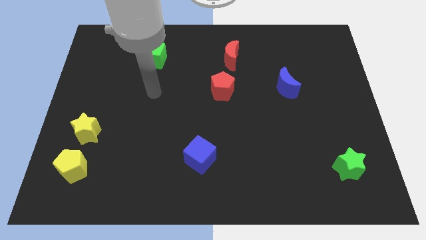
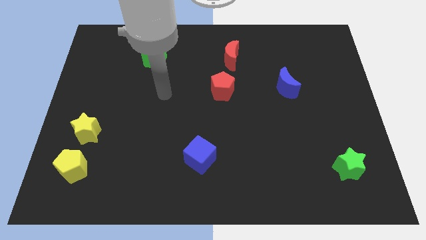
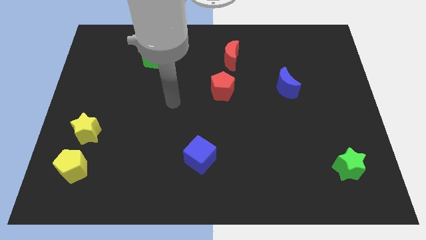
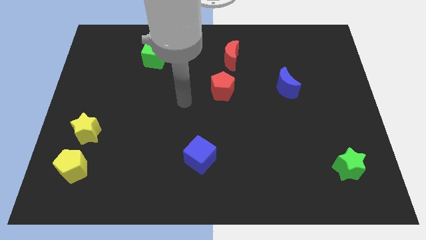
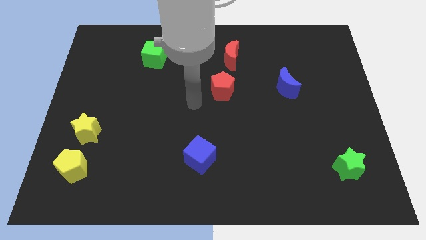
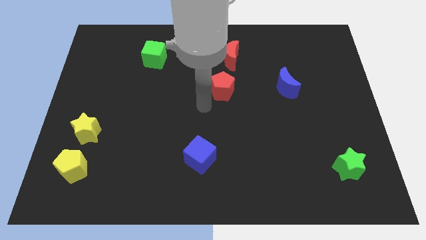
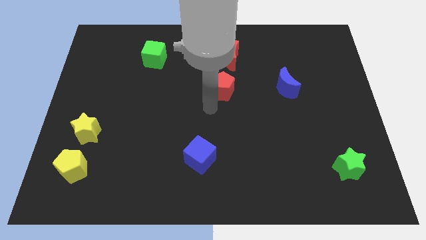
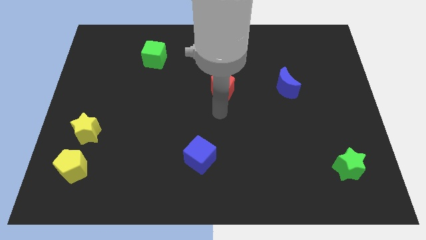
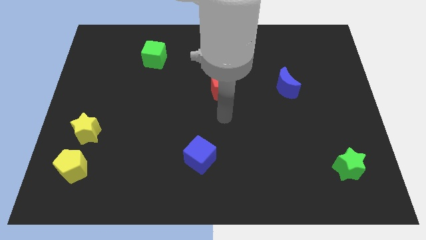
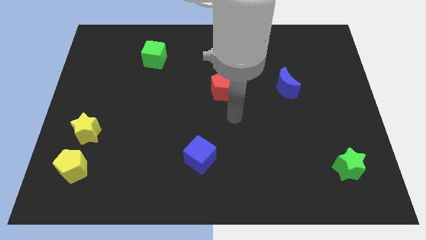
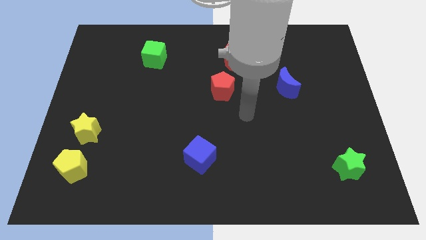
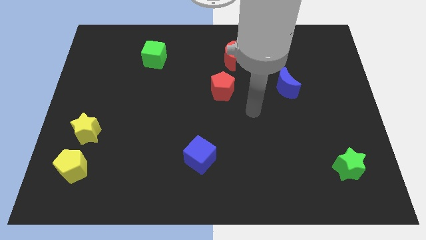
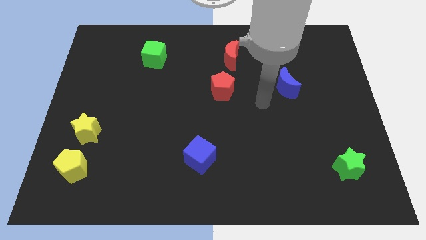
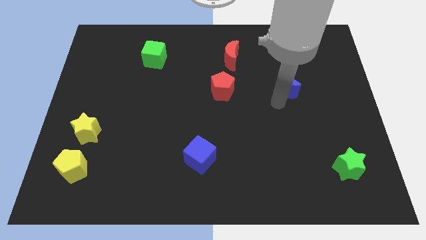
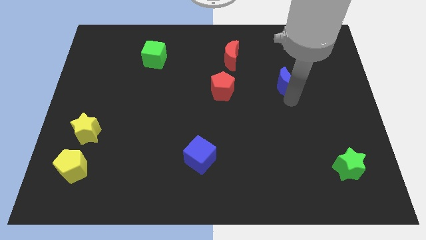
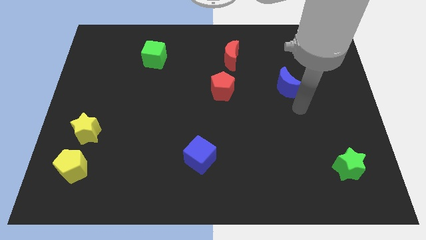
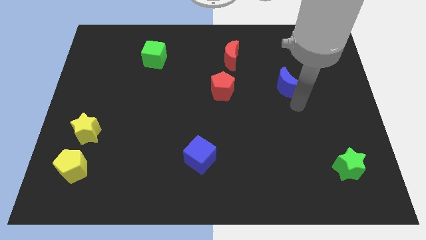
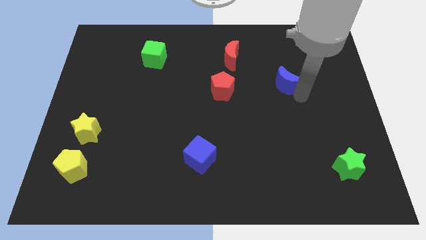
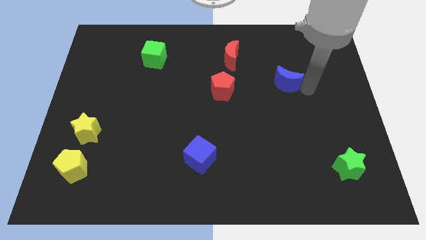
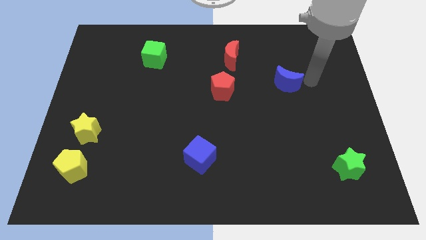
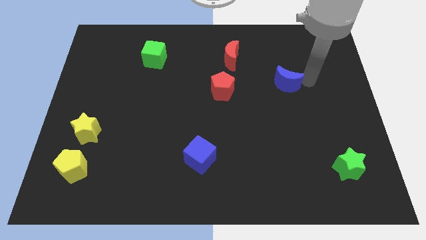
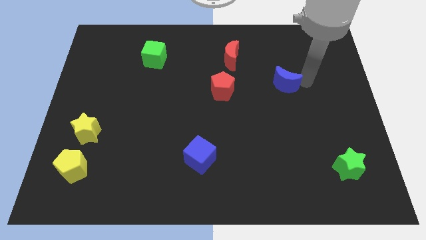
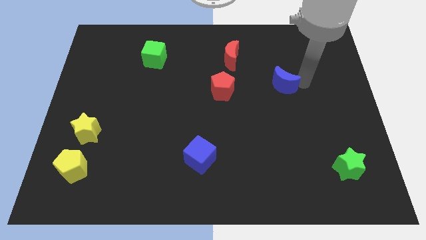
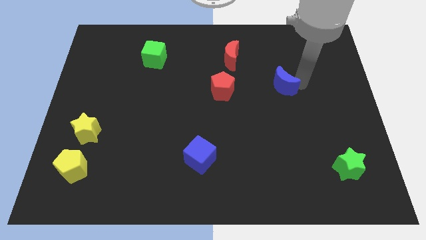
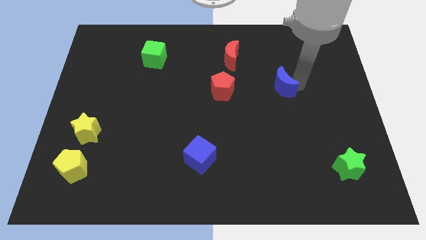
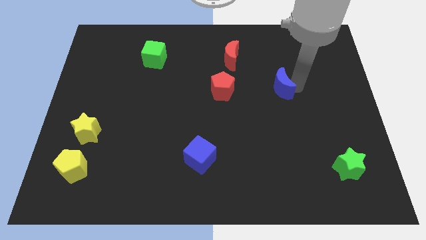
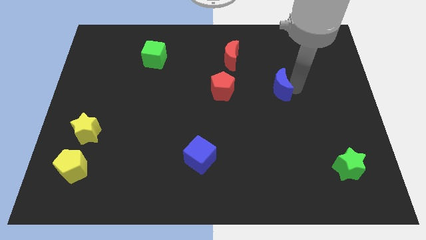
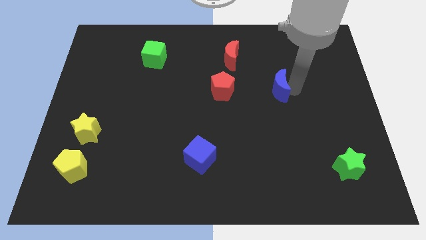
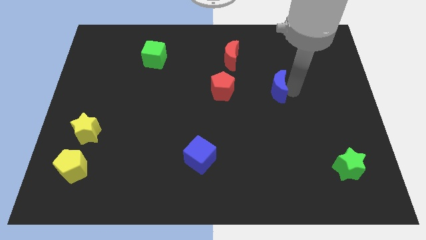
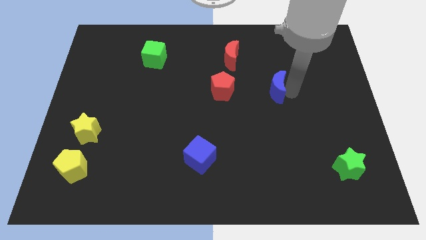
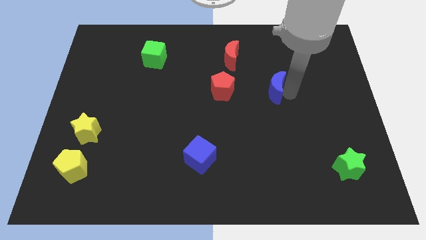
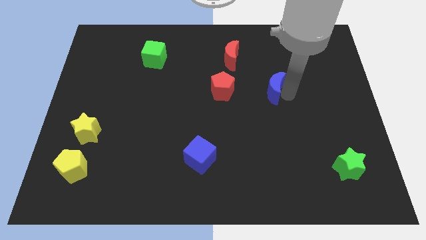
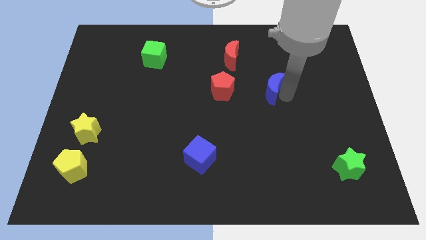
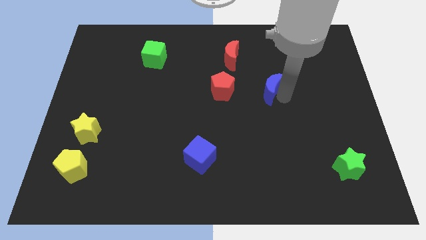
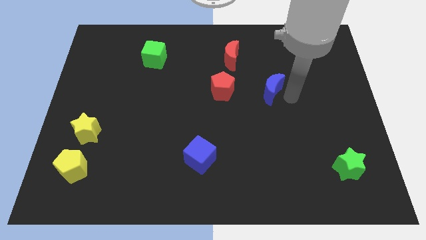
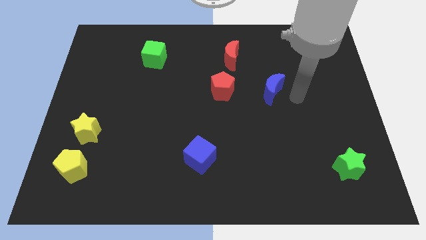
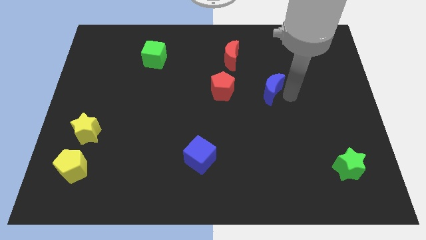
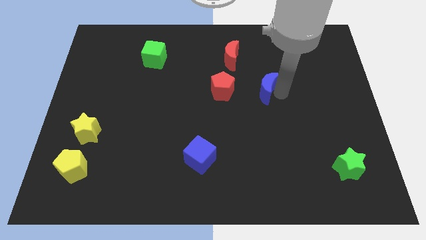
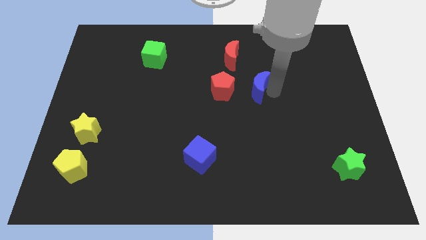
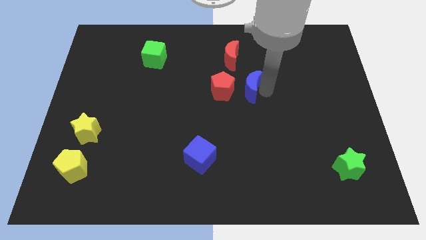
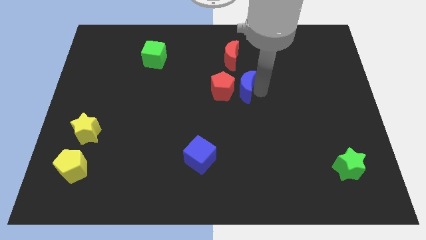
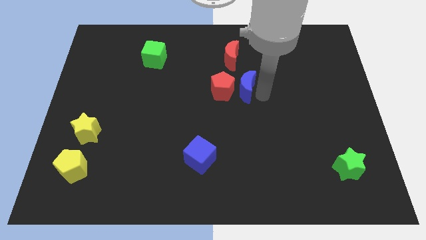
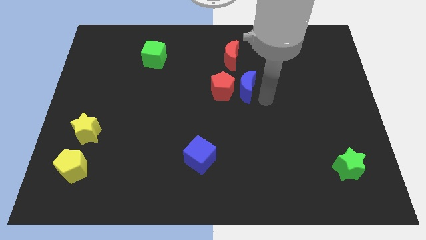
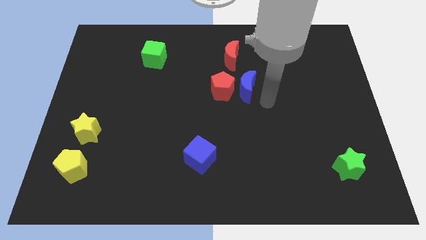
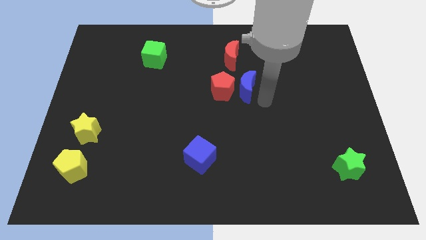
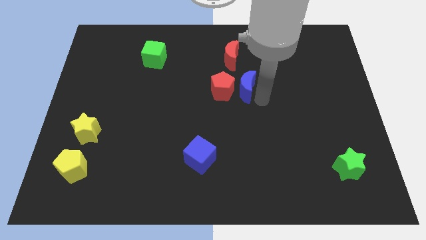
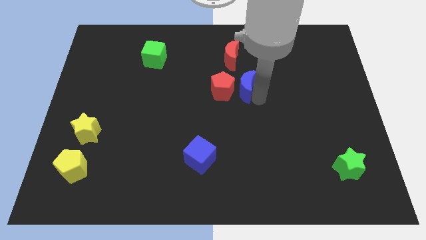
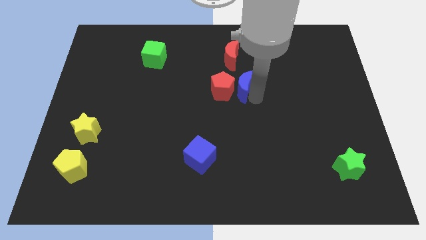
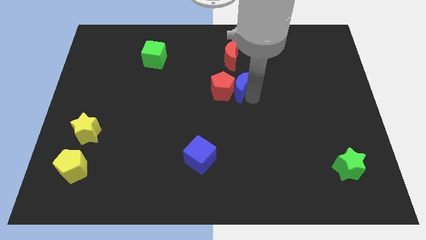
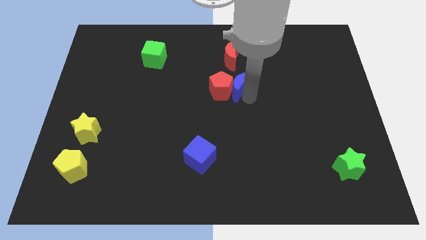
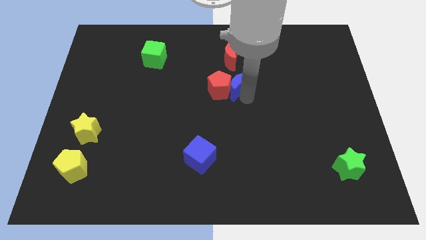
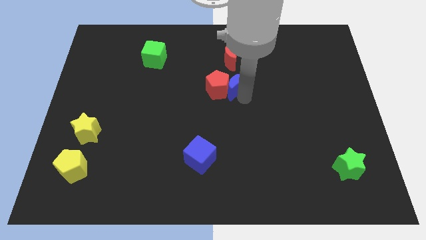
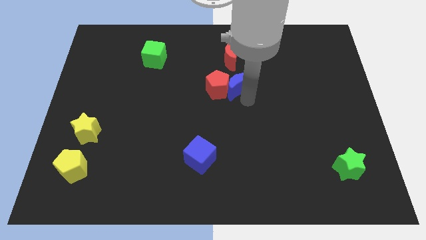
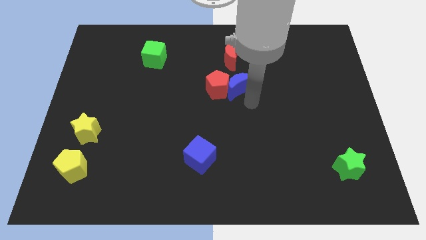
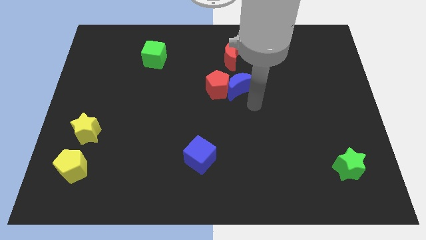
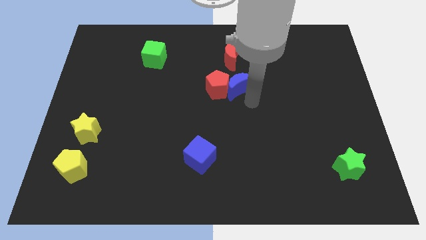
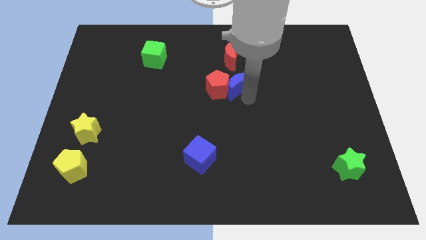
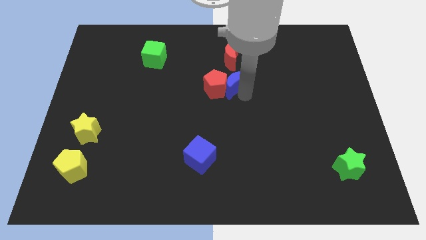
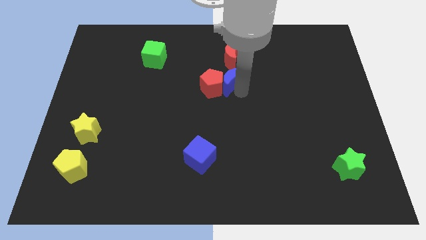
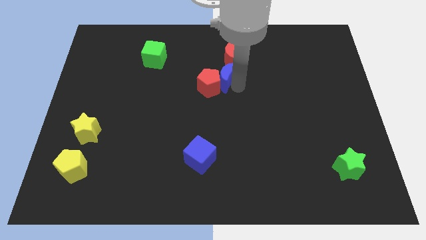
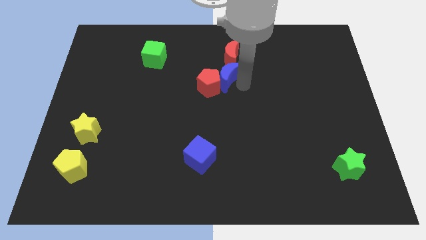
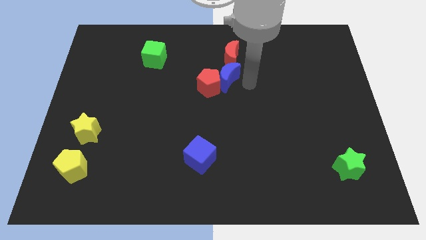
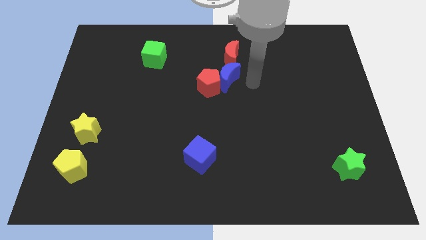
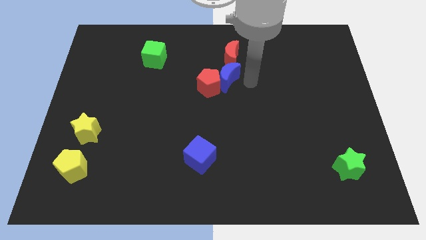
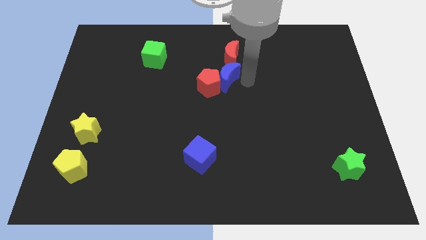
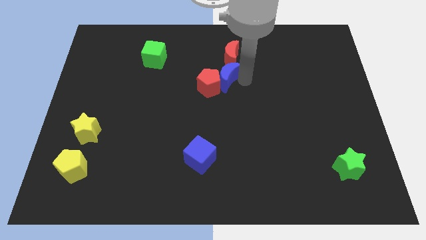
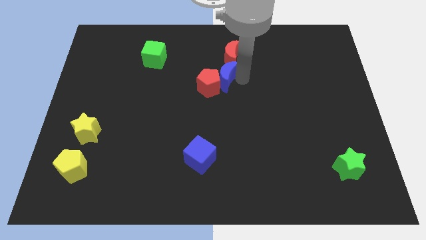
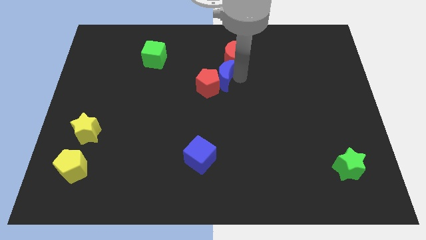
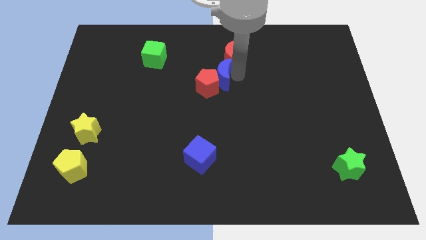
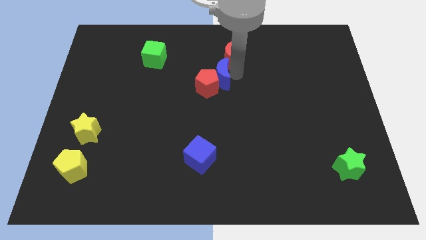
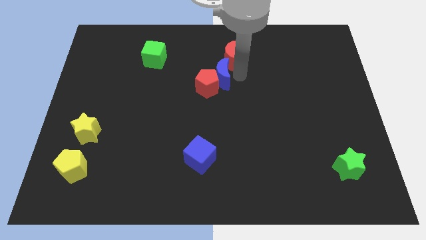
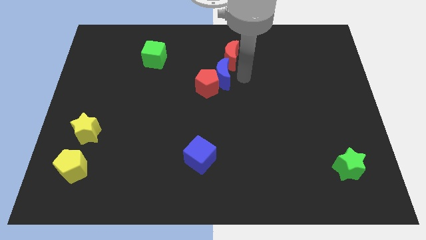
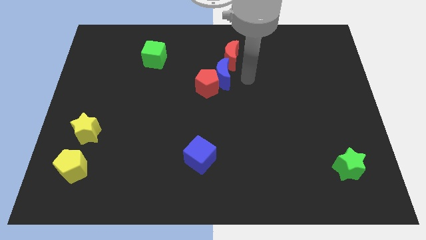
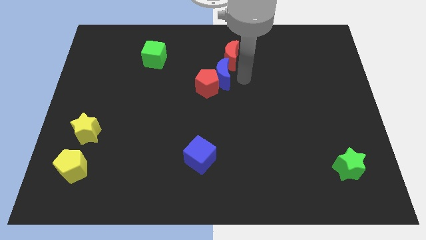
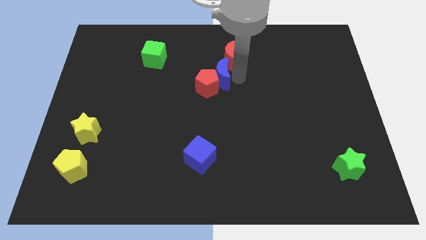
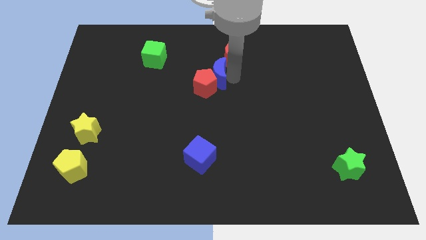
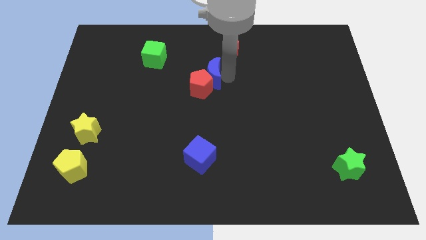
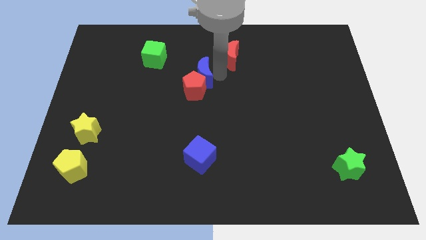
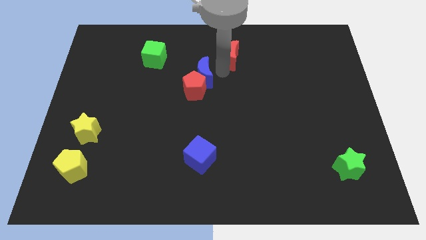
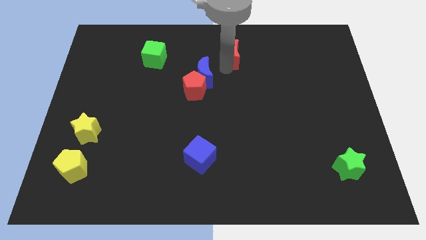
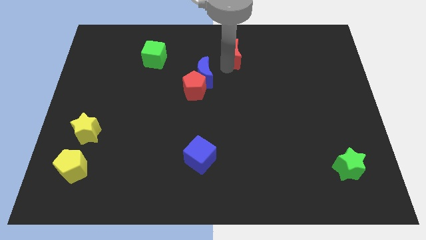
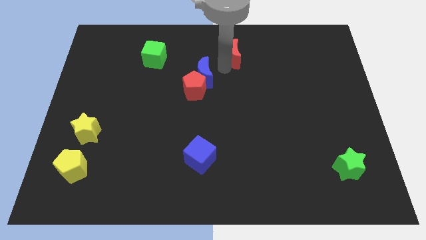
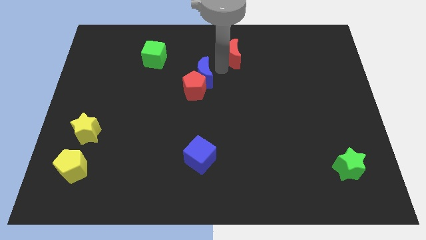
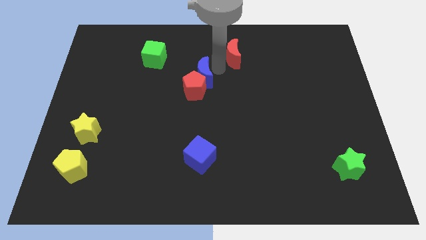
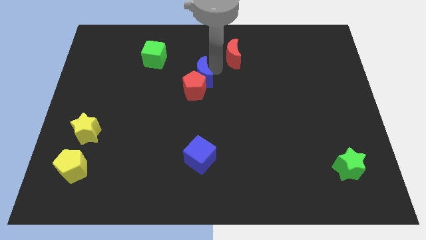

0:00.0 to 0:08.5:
move the blue moon left
